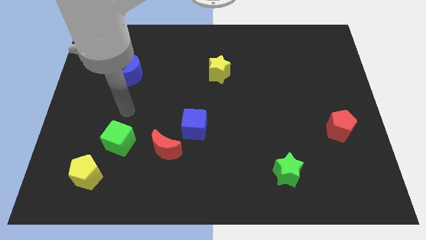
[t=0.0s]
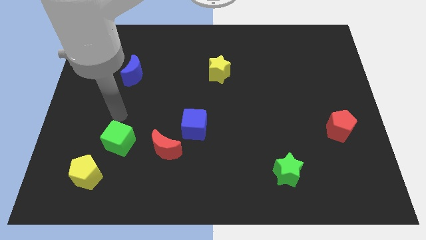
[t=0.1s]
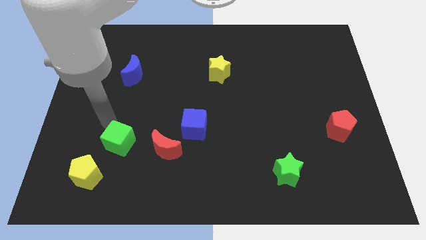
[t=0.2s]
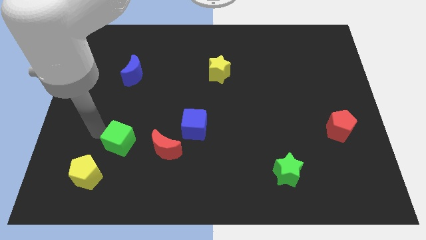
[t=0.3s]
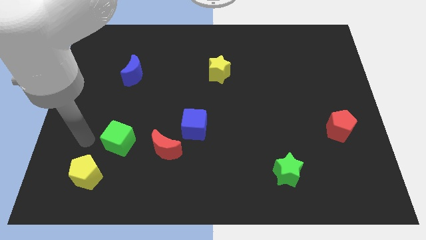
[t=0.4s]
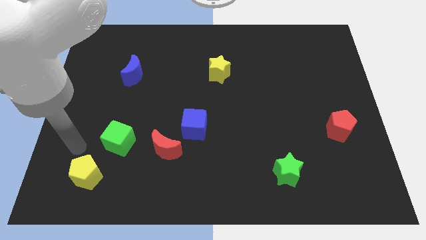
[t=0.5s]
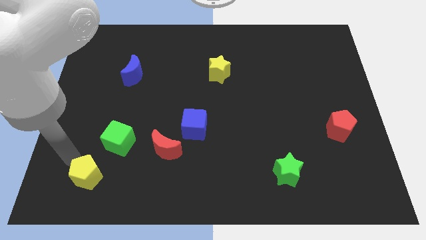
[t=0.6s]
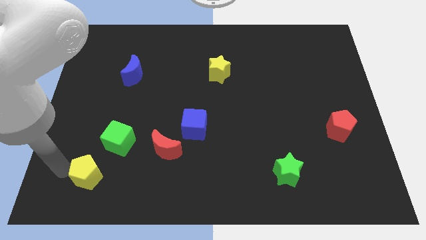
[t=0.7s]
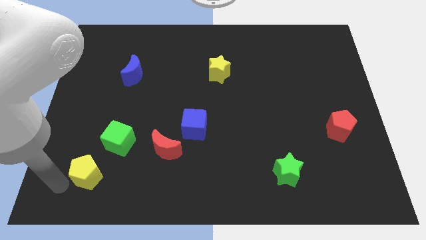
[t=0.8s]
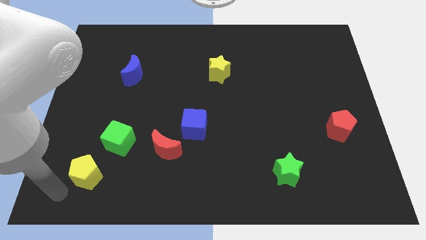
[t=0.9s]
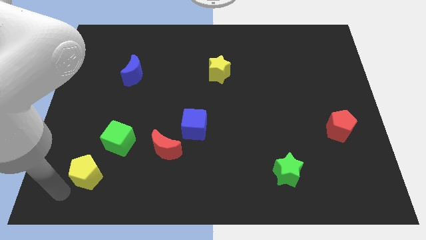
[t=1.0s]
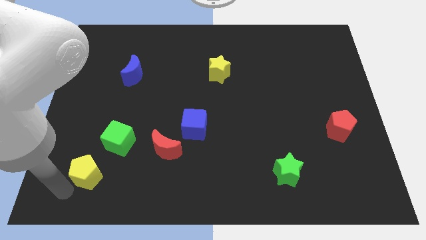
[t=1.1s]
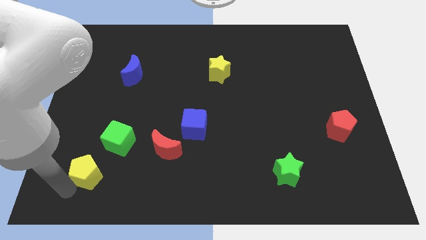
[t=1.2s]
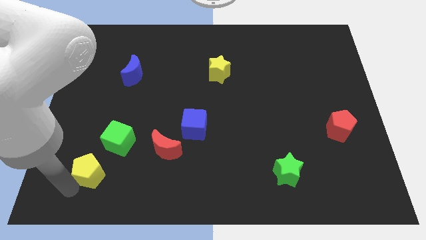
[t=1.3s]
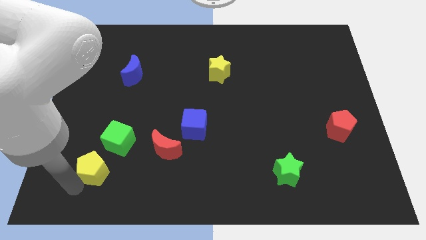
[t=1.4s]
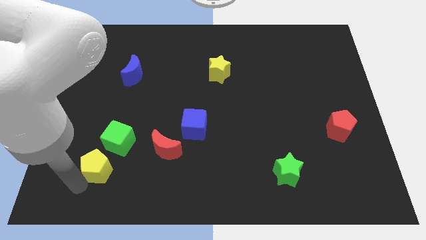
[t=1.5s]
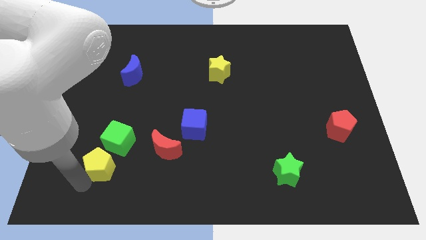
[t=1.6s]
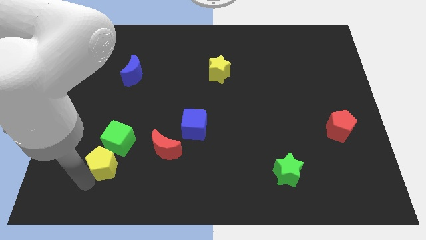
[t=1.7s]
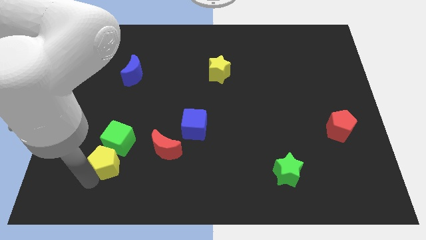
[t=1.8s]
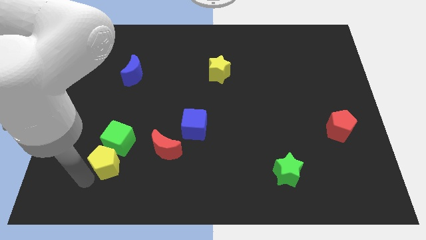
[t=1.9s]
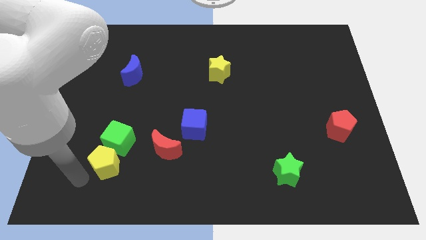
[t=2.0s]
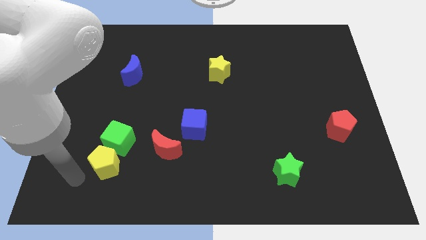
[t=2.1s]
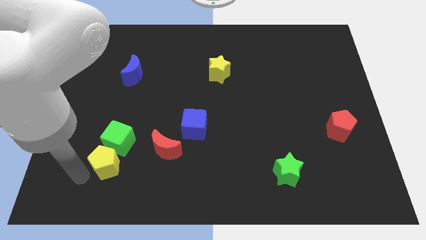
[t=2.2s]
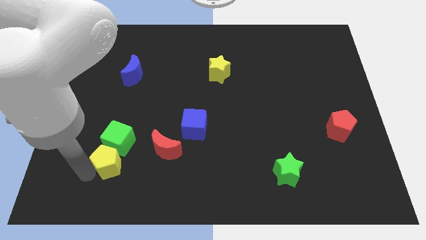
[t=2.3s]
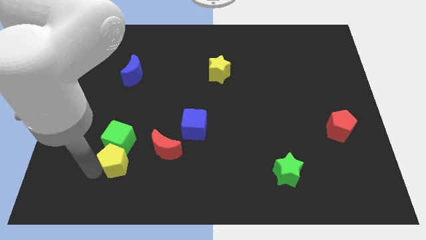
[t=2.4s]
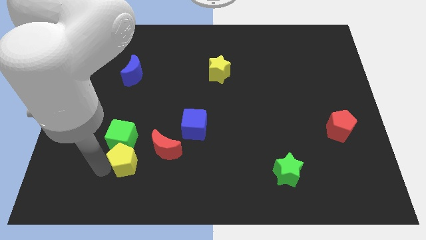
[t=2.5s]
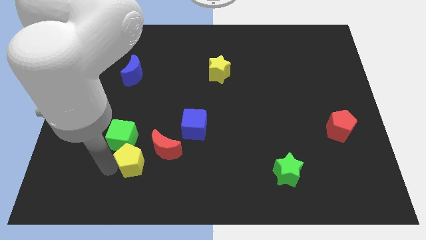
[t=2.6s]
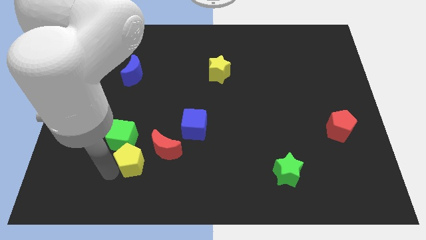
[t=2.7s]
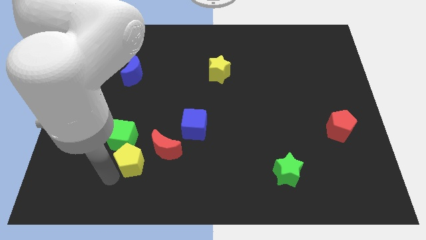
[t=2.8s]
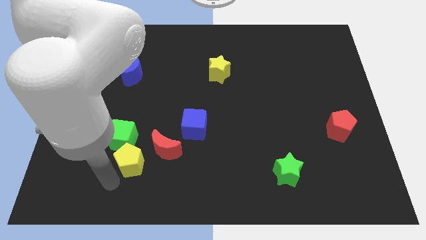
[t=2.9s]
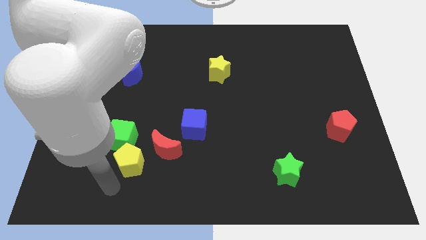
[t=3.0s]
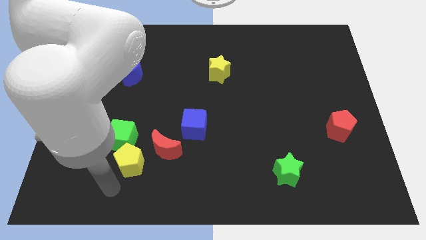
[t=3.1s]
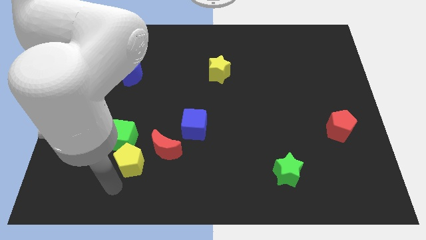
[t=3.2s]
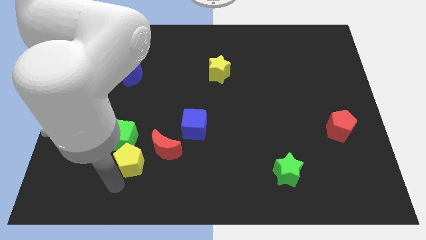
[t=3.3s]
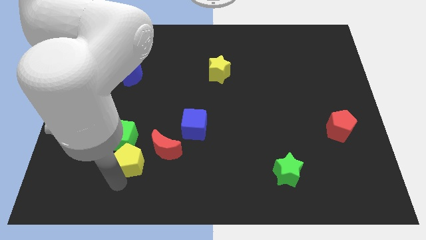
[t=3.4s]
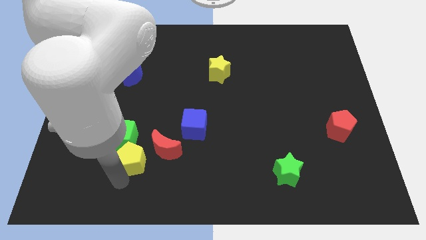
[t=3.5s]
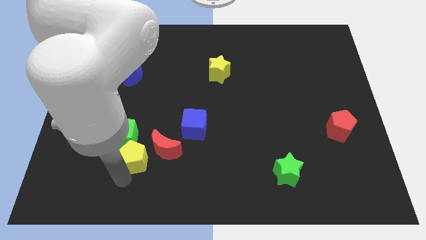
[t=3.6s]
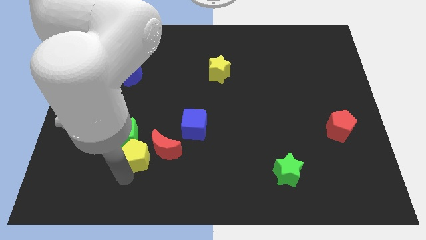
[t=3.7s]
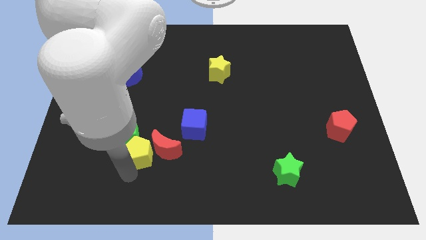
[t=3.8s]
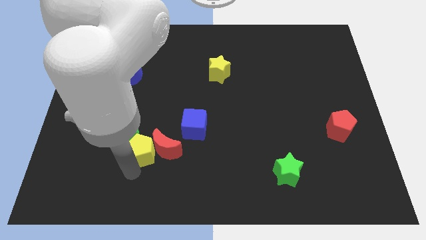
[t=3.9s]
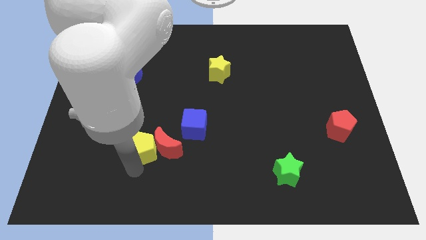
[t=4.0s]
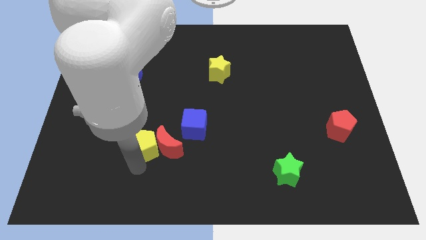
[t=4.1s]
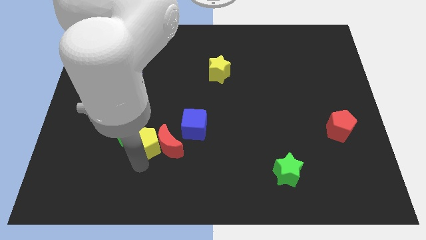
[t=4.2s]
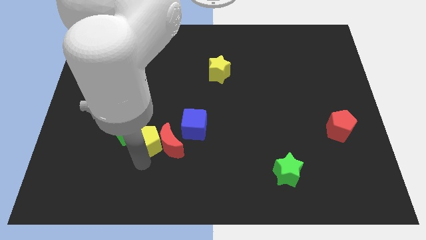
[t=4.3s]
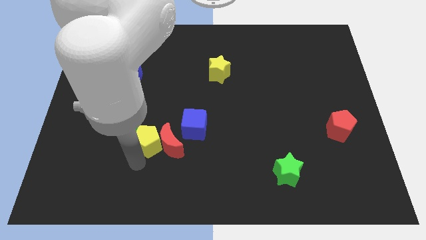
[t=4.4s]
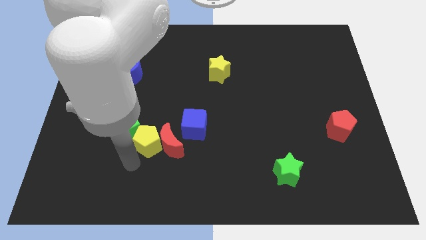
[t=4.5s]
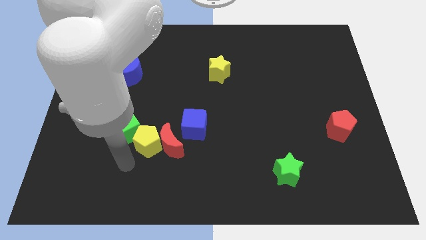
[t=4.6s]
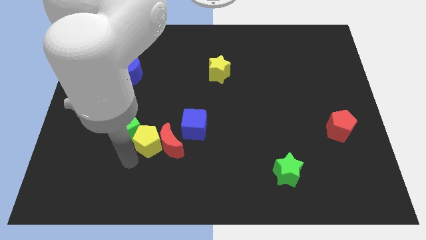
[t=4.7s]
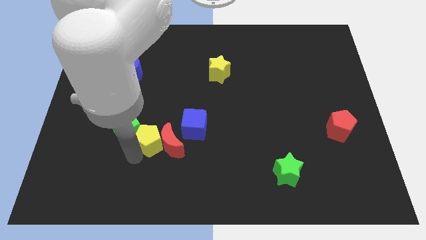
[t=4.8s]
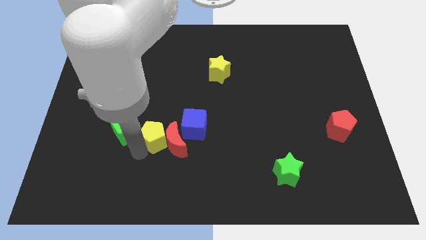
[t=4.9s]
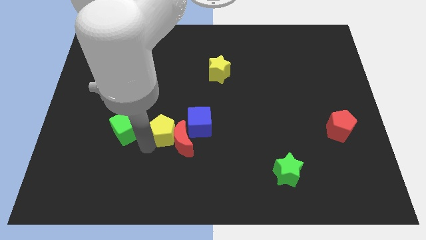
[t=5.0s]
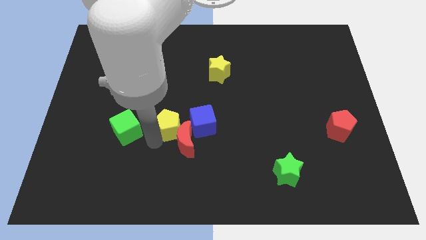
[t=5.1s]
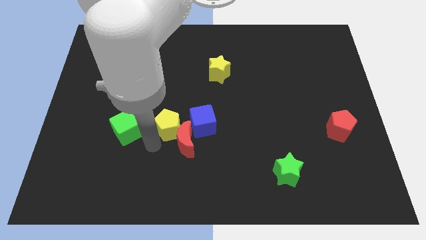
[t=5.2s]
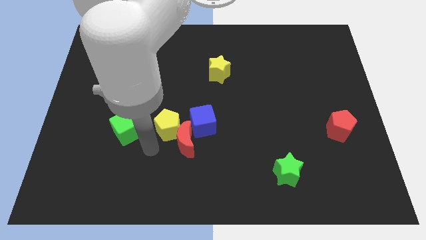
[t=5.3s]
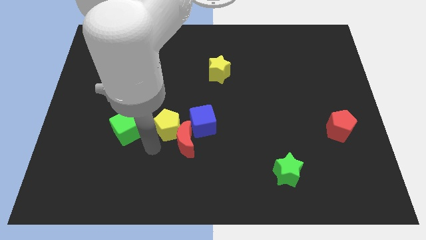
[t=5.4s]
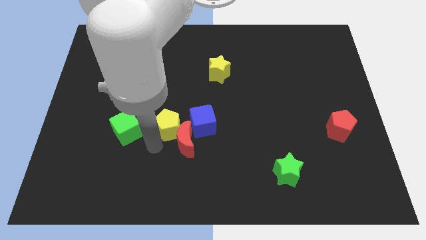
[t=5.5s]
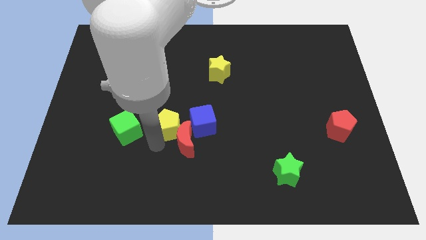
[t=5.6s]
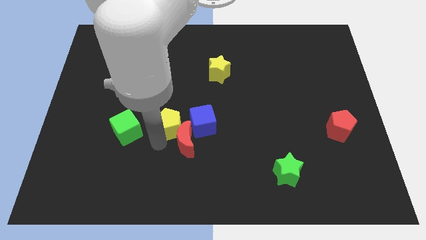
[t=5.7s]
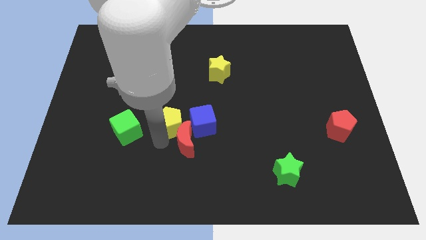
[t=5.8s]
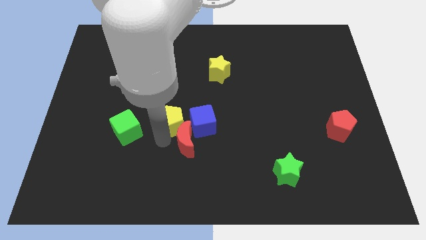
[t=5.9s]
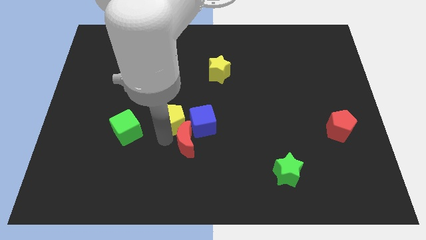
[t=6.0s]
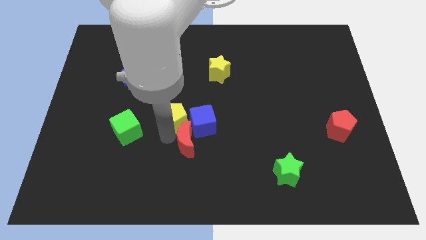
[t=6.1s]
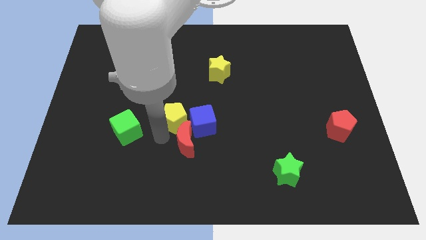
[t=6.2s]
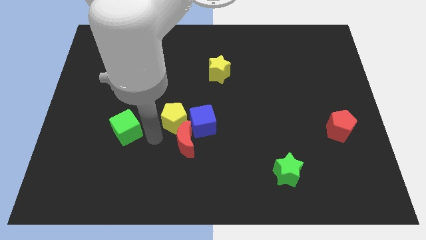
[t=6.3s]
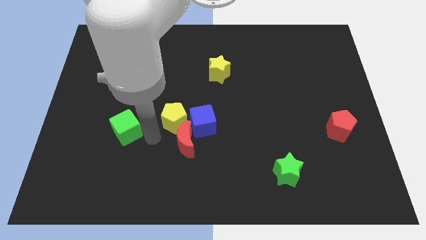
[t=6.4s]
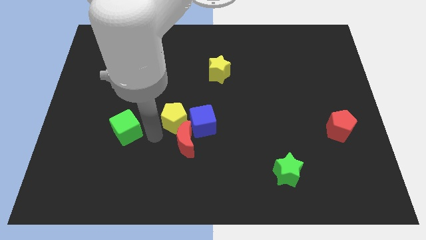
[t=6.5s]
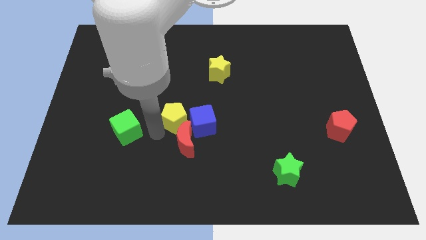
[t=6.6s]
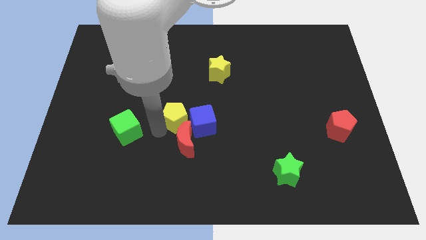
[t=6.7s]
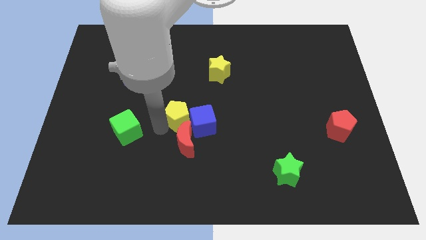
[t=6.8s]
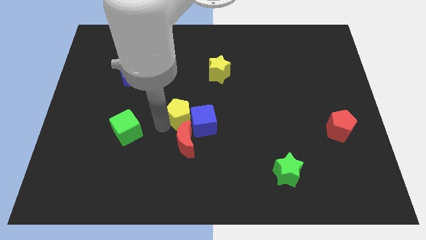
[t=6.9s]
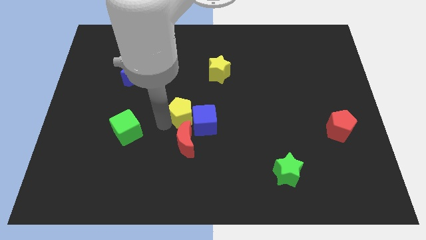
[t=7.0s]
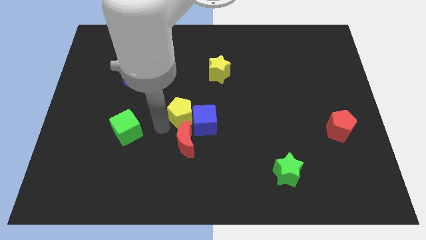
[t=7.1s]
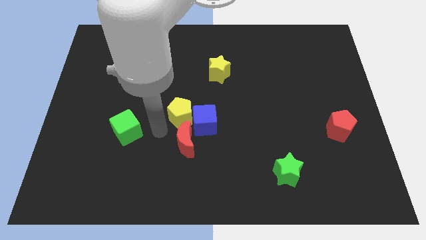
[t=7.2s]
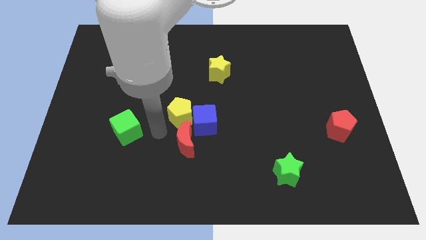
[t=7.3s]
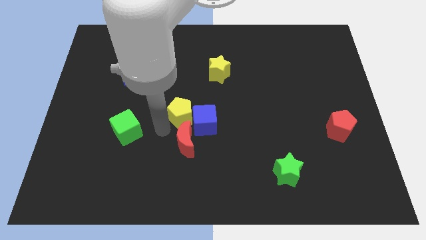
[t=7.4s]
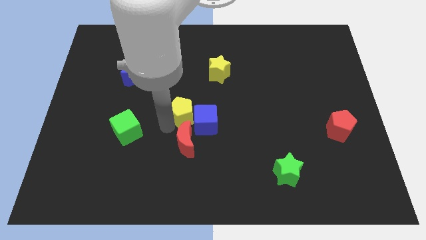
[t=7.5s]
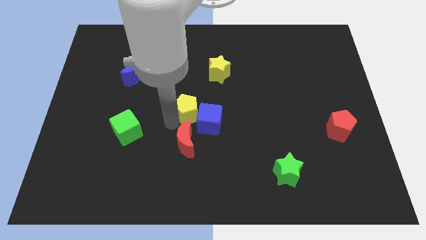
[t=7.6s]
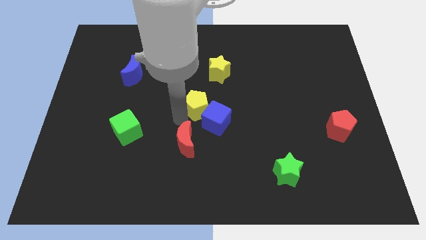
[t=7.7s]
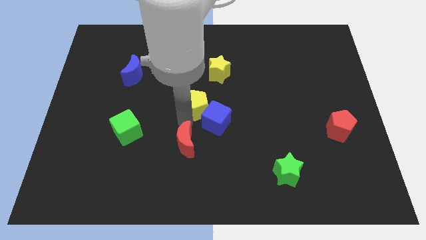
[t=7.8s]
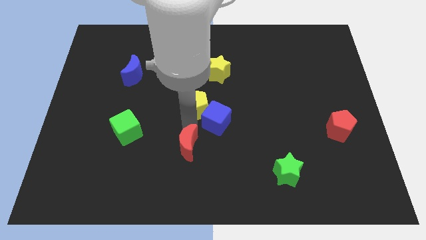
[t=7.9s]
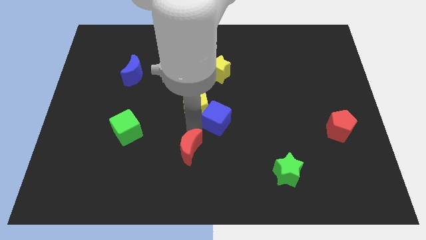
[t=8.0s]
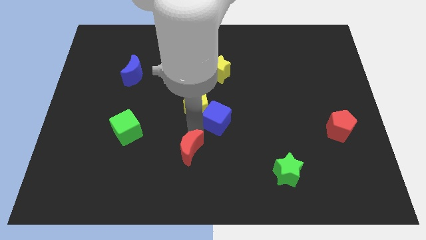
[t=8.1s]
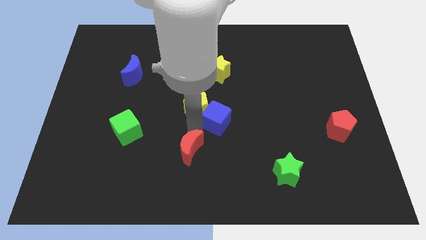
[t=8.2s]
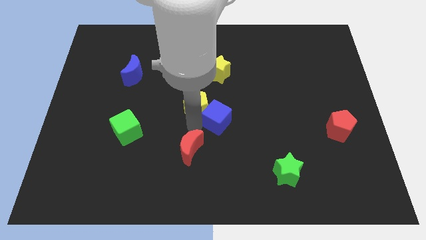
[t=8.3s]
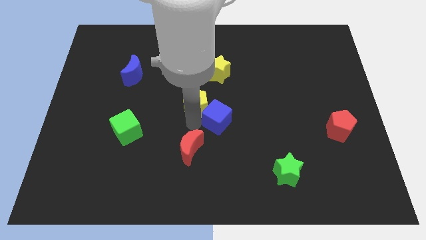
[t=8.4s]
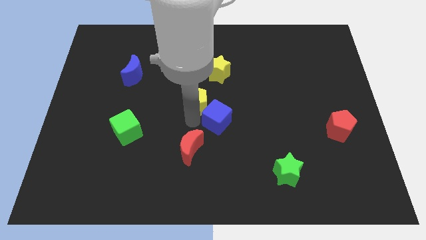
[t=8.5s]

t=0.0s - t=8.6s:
push the yellow pentagon to the bottom left side of the yellow star
